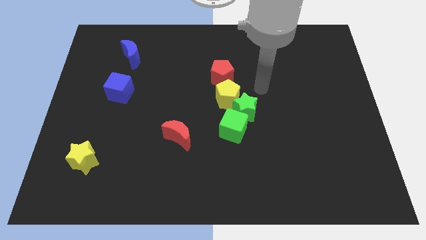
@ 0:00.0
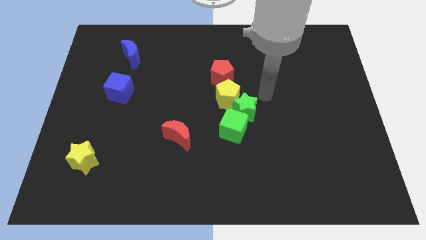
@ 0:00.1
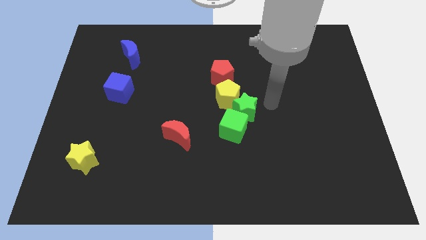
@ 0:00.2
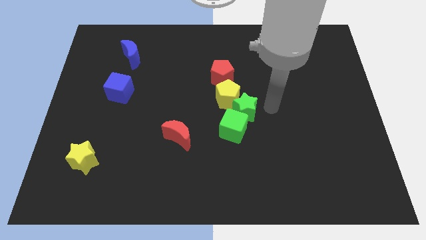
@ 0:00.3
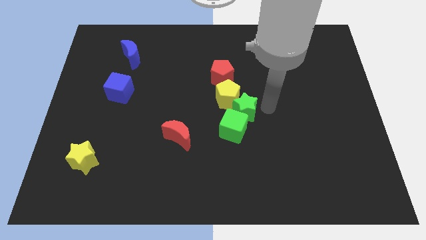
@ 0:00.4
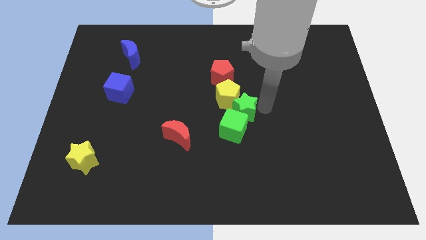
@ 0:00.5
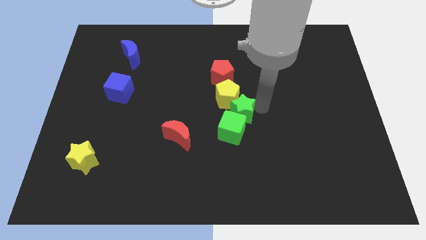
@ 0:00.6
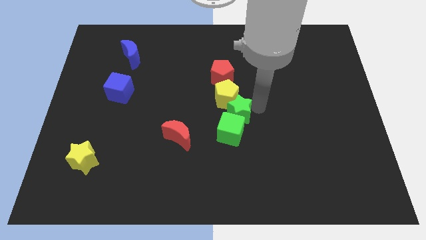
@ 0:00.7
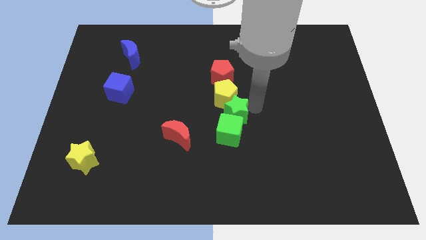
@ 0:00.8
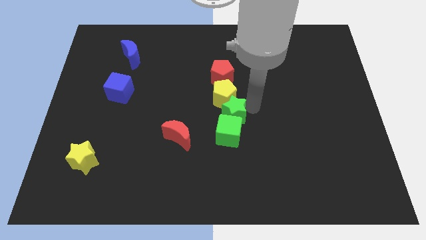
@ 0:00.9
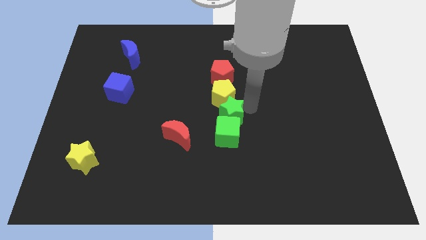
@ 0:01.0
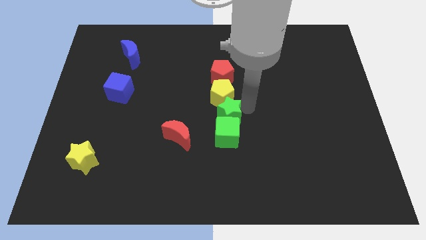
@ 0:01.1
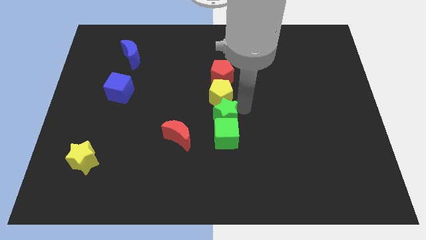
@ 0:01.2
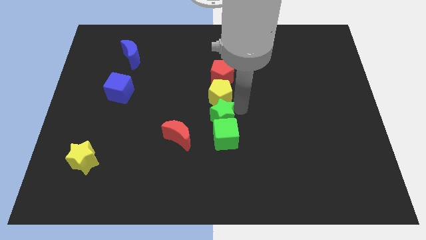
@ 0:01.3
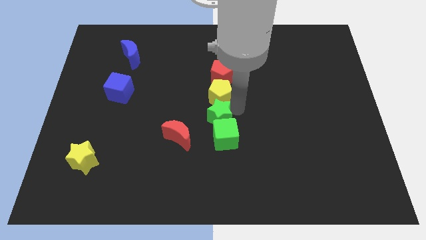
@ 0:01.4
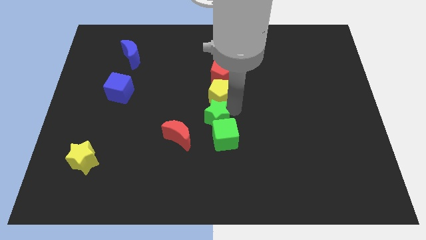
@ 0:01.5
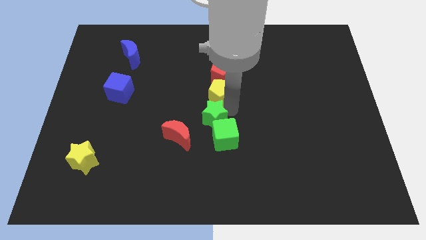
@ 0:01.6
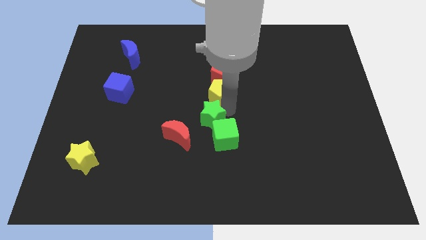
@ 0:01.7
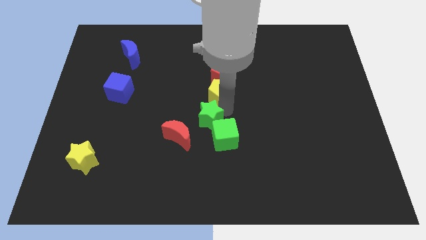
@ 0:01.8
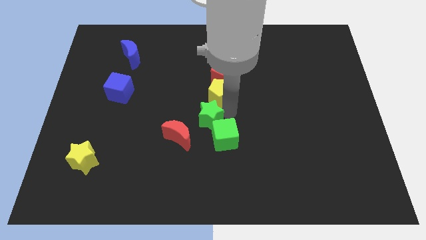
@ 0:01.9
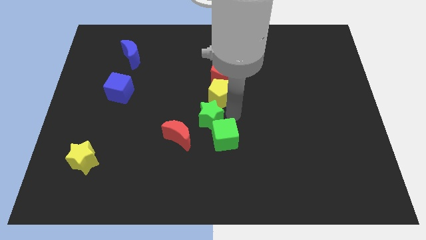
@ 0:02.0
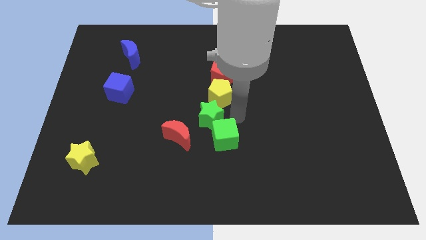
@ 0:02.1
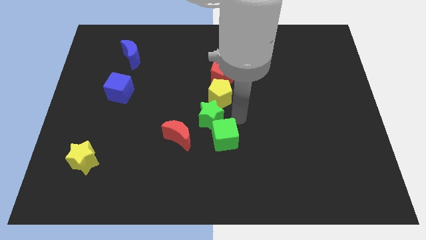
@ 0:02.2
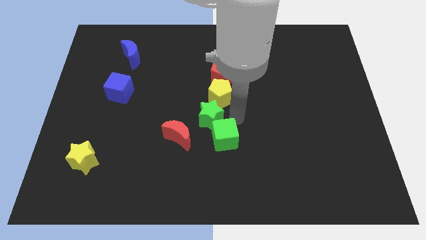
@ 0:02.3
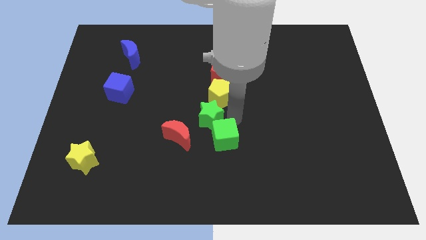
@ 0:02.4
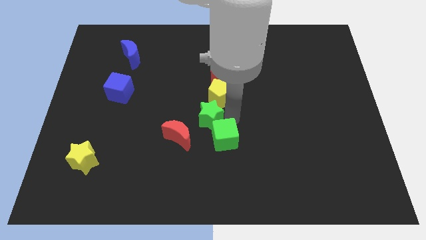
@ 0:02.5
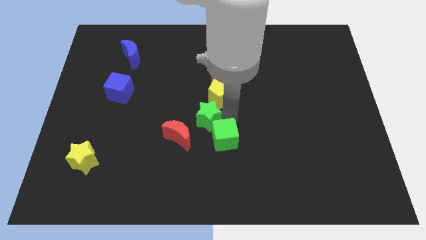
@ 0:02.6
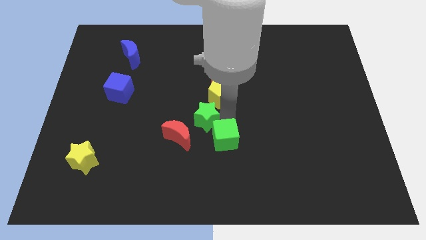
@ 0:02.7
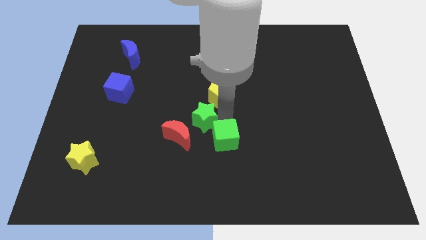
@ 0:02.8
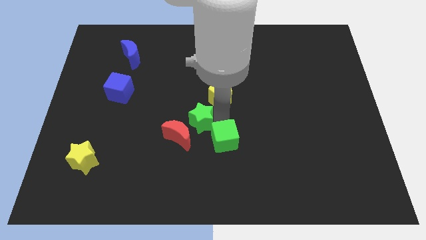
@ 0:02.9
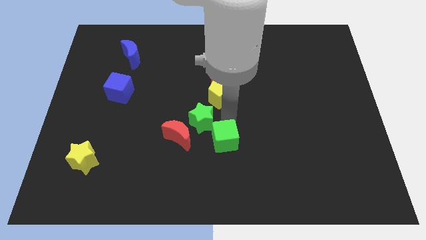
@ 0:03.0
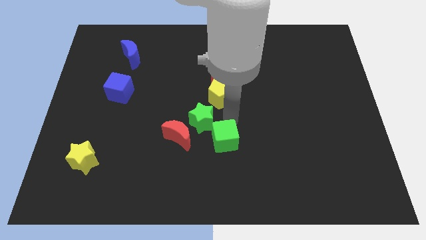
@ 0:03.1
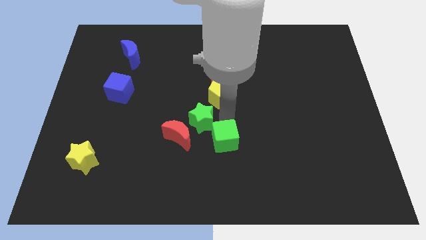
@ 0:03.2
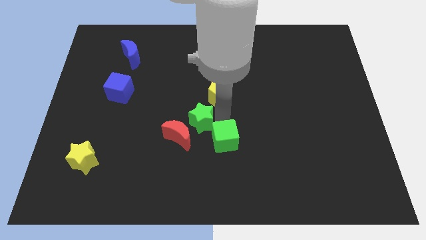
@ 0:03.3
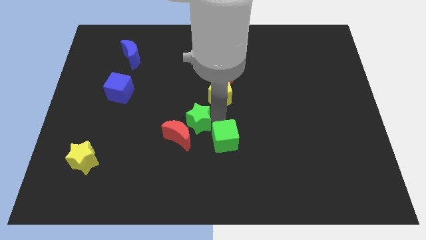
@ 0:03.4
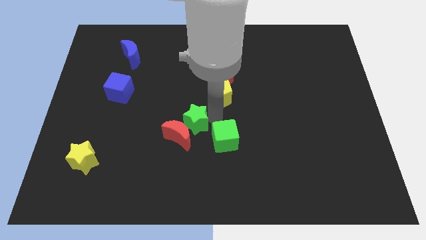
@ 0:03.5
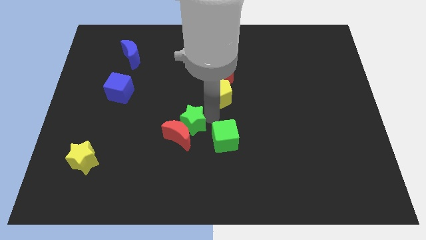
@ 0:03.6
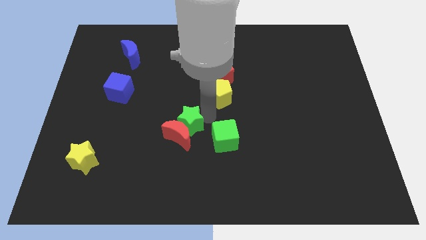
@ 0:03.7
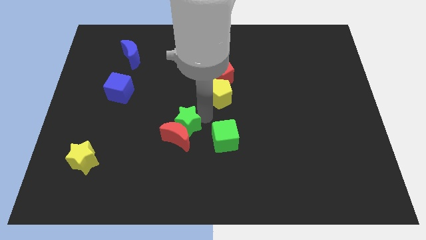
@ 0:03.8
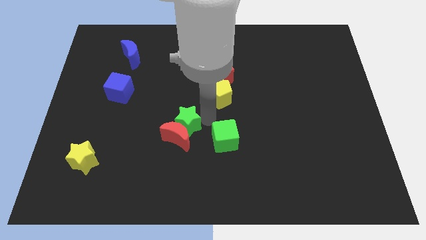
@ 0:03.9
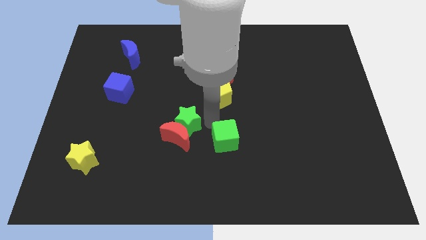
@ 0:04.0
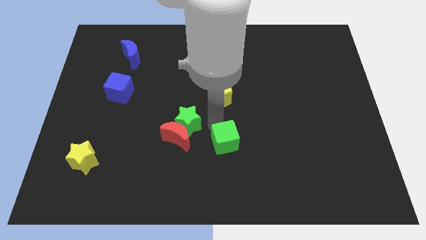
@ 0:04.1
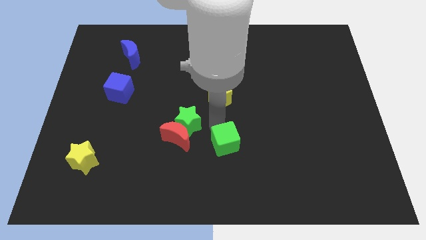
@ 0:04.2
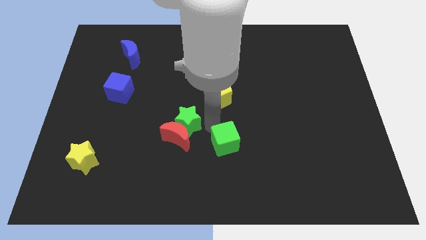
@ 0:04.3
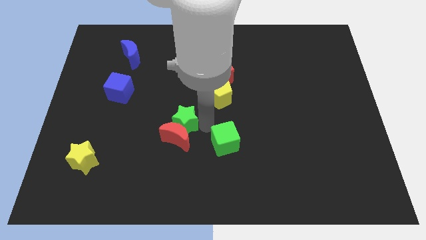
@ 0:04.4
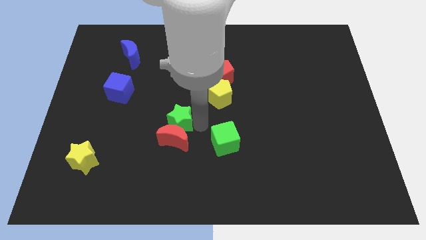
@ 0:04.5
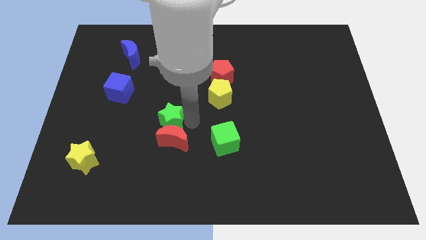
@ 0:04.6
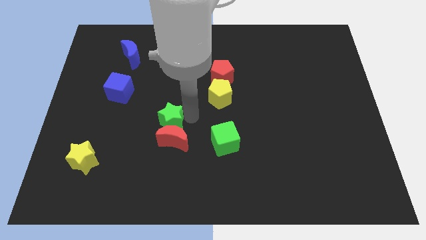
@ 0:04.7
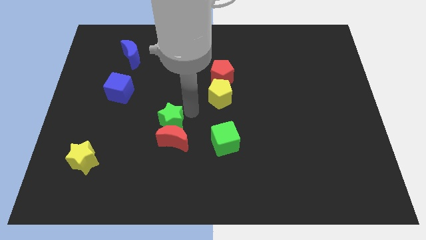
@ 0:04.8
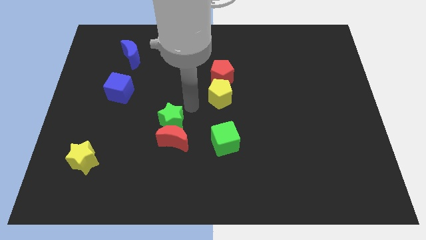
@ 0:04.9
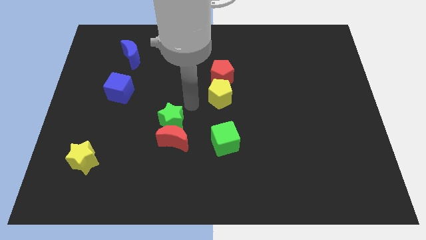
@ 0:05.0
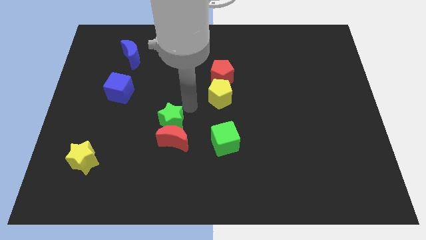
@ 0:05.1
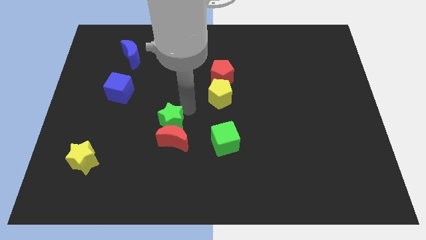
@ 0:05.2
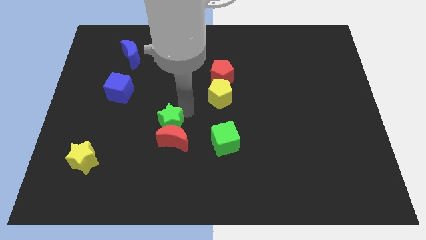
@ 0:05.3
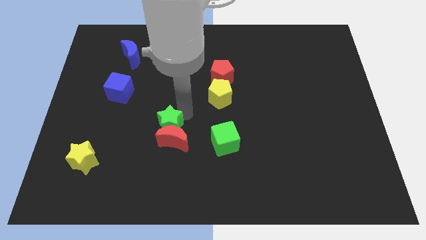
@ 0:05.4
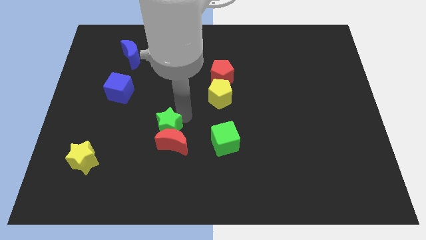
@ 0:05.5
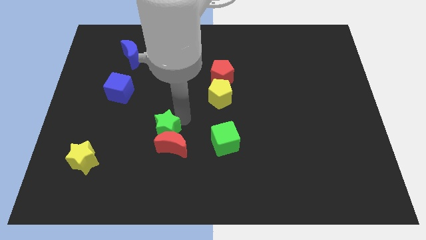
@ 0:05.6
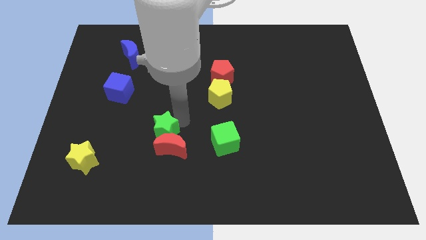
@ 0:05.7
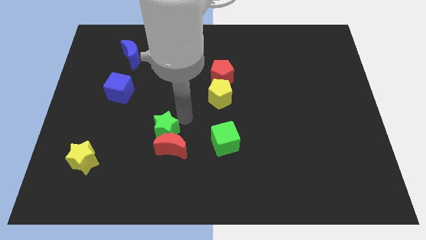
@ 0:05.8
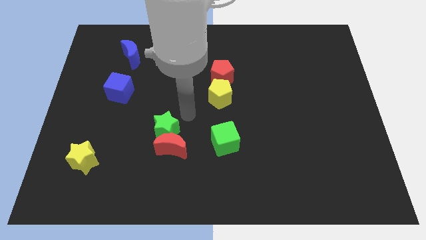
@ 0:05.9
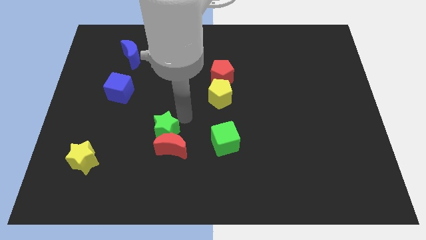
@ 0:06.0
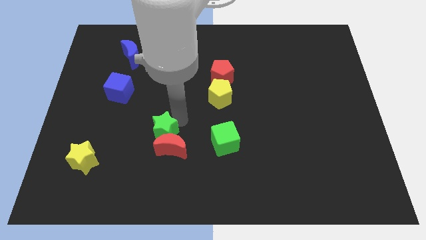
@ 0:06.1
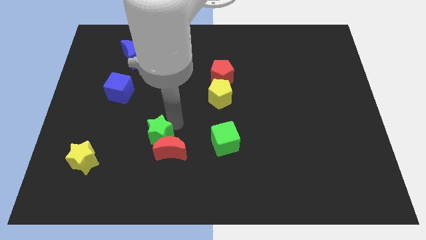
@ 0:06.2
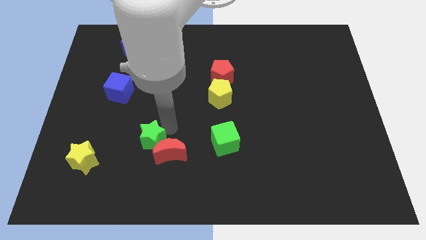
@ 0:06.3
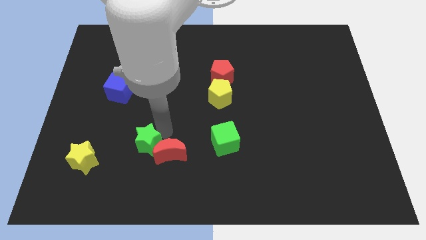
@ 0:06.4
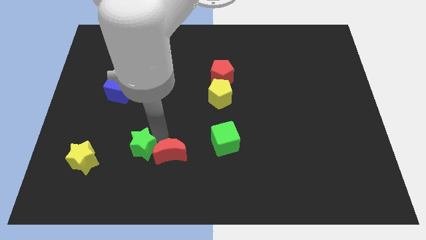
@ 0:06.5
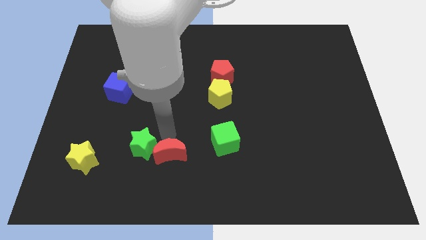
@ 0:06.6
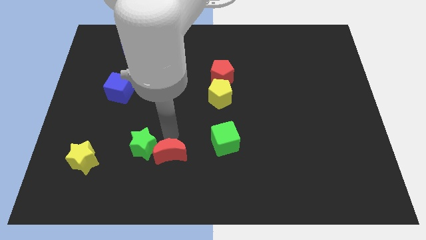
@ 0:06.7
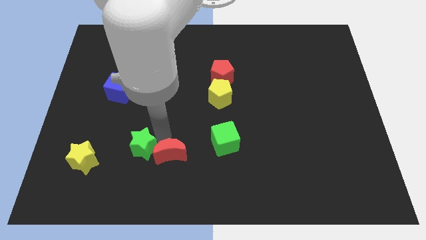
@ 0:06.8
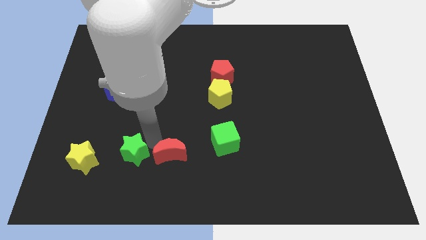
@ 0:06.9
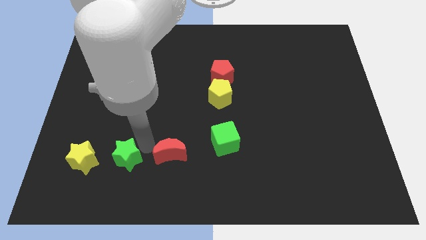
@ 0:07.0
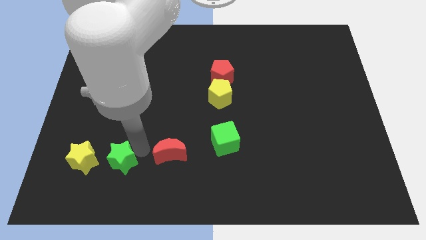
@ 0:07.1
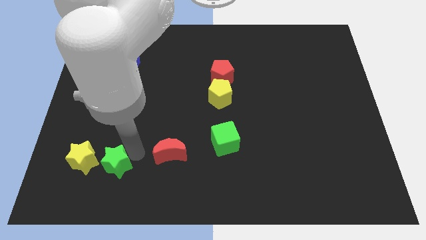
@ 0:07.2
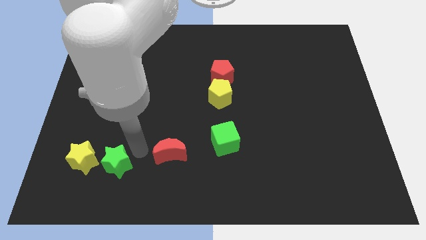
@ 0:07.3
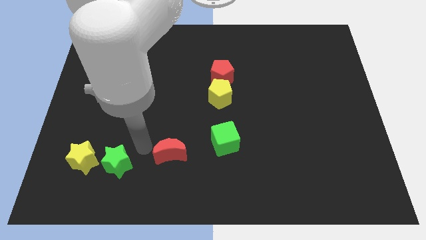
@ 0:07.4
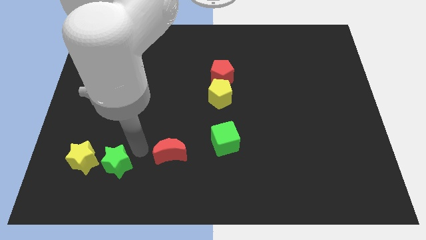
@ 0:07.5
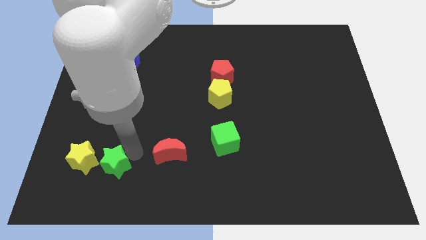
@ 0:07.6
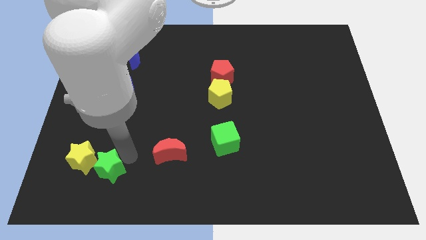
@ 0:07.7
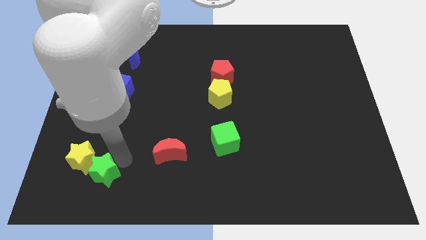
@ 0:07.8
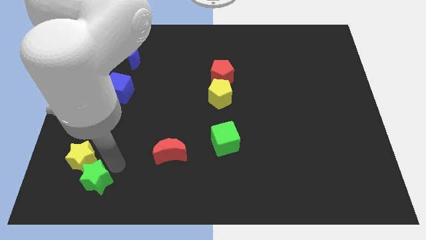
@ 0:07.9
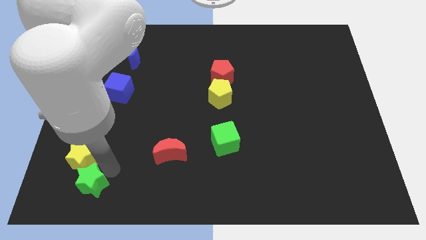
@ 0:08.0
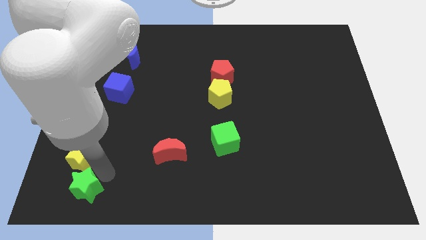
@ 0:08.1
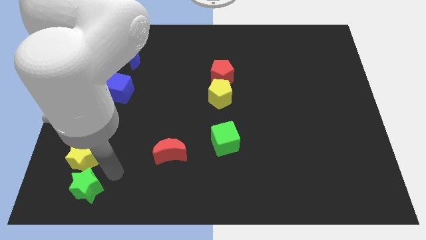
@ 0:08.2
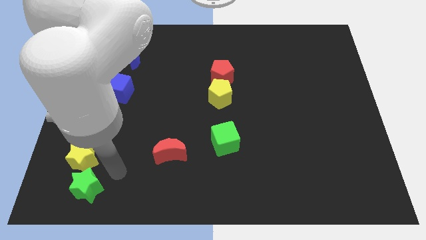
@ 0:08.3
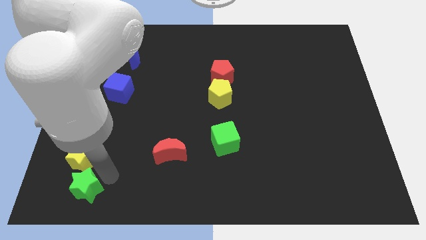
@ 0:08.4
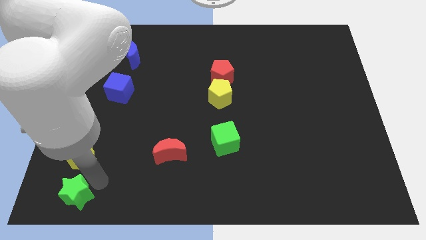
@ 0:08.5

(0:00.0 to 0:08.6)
push the green star to the lower left corner
